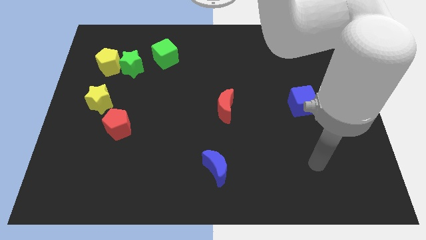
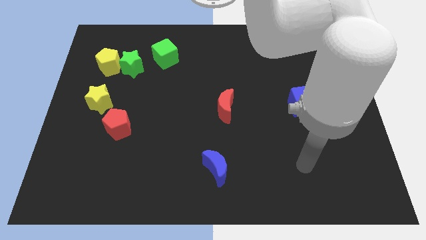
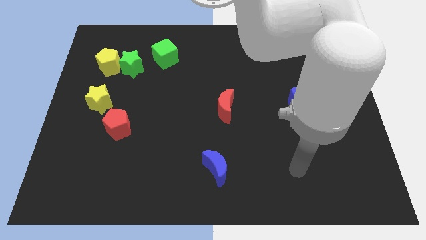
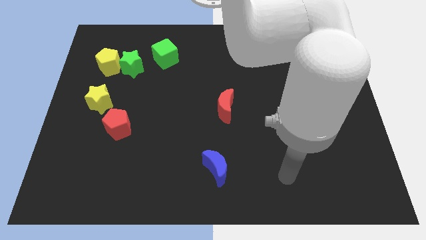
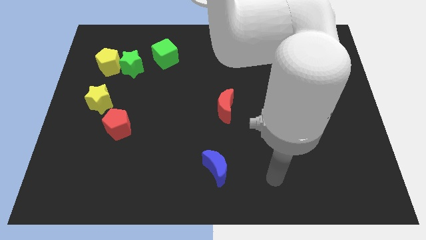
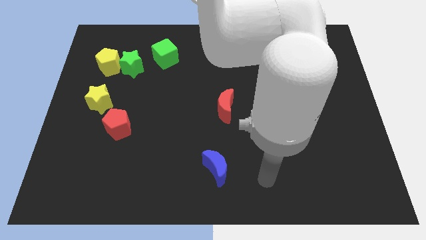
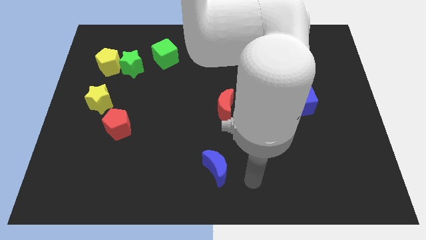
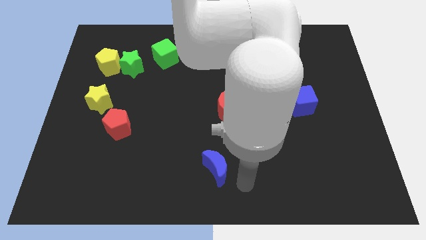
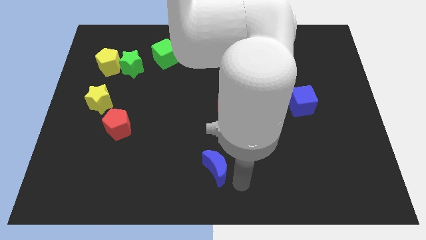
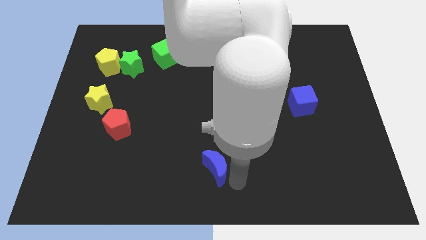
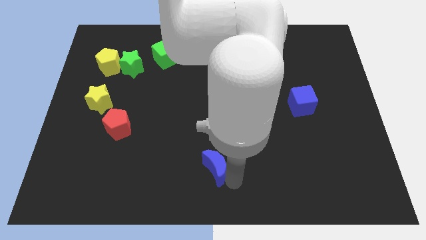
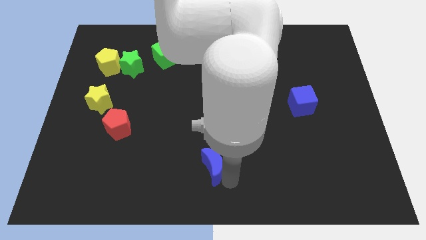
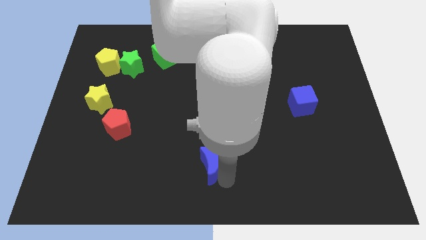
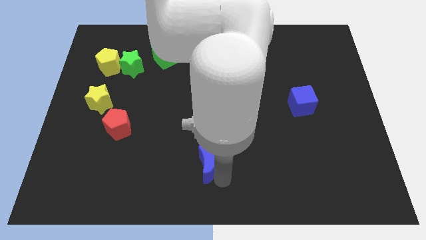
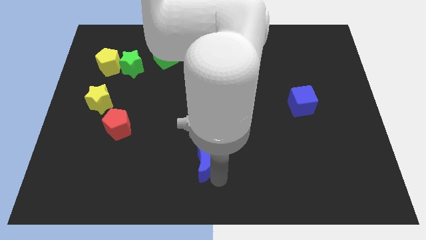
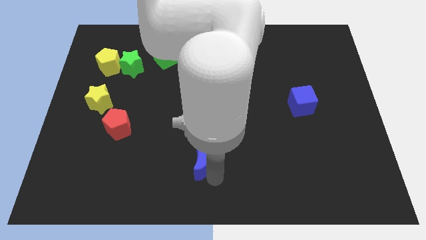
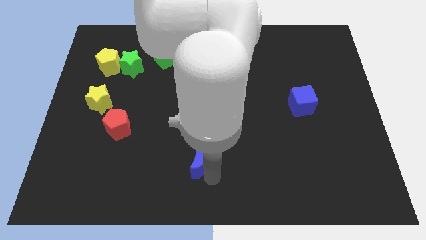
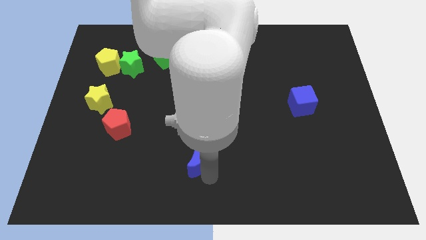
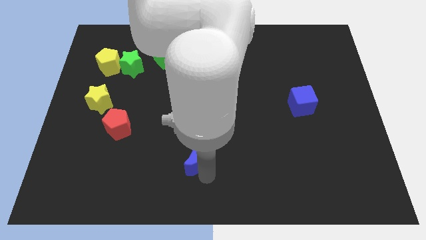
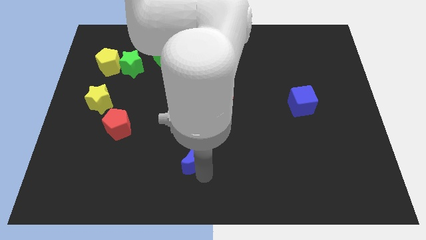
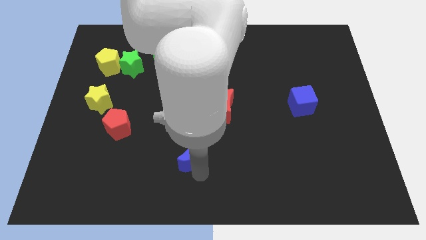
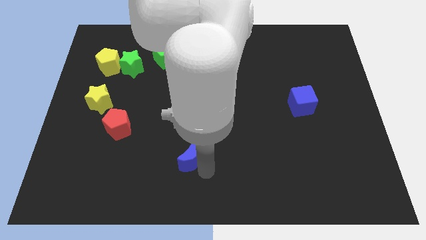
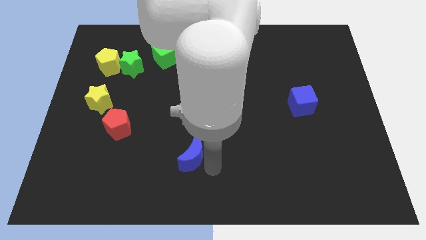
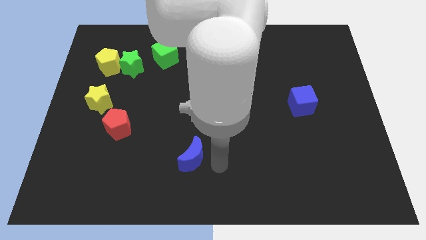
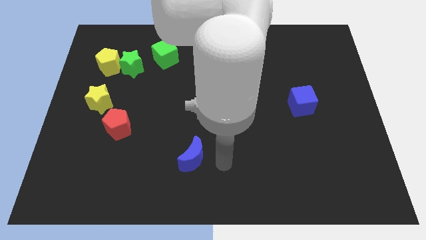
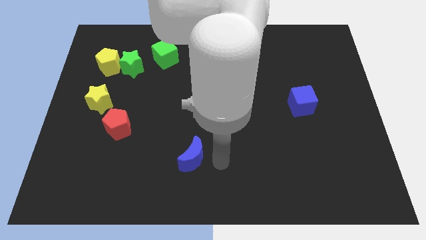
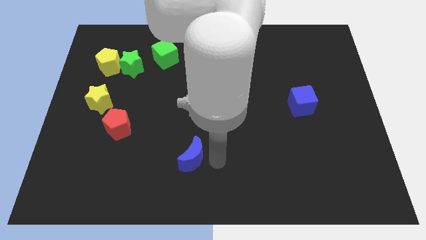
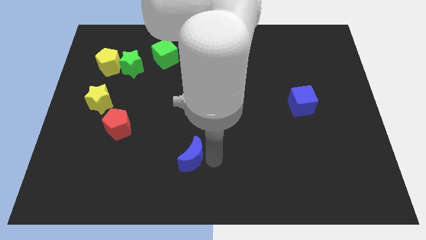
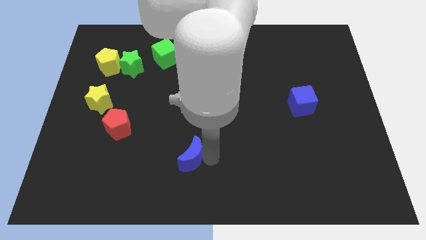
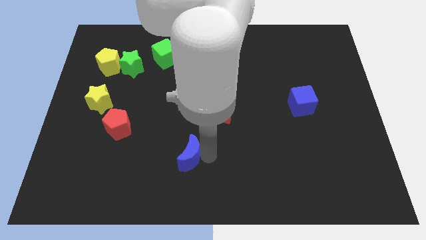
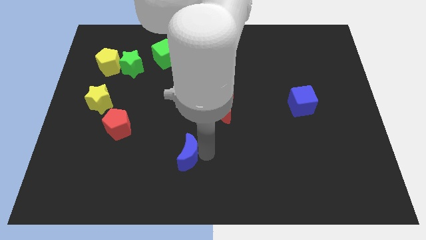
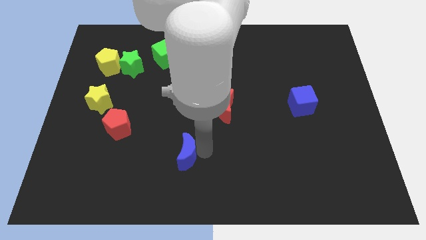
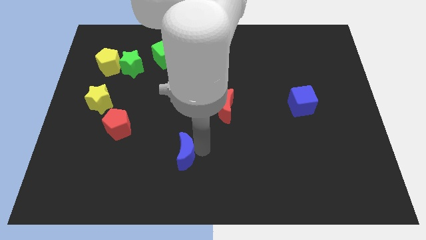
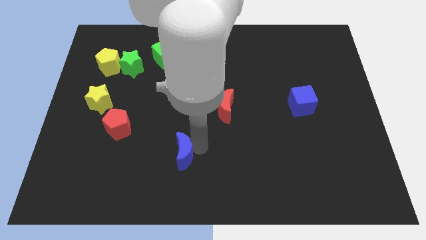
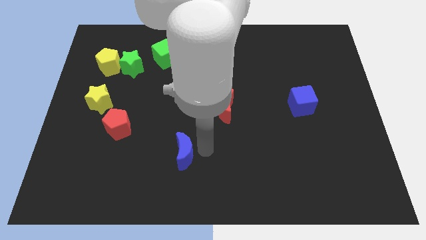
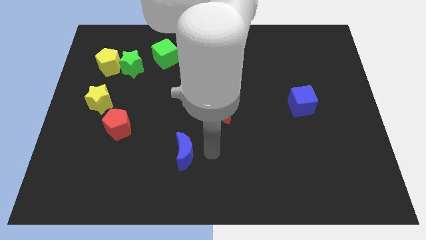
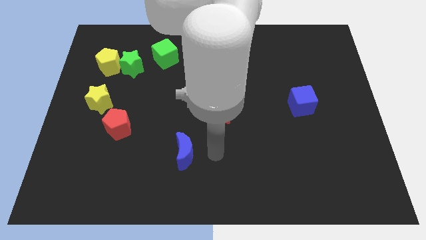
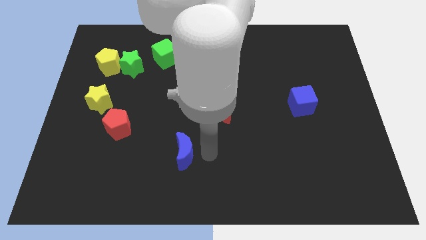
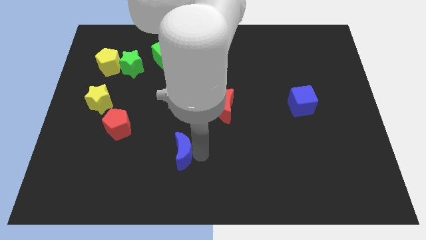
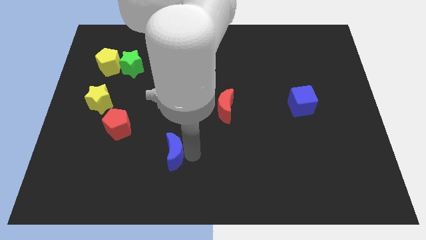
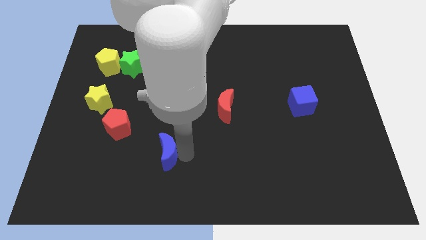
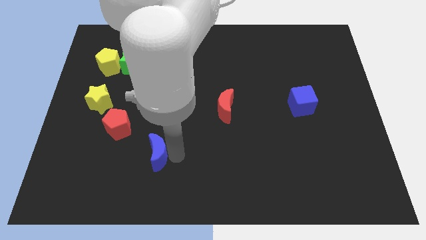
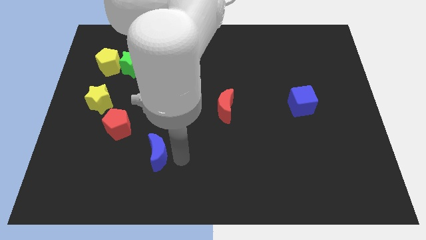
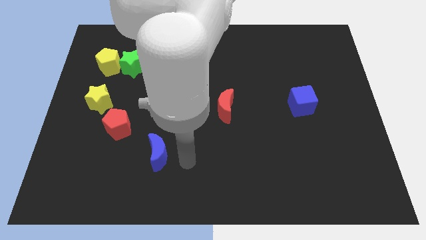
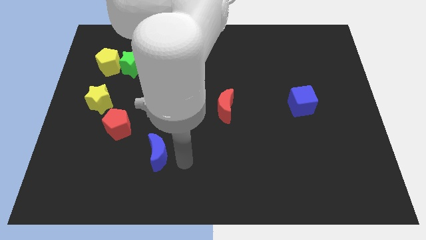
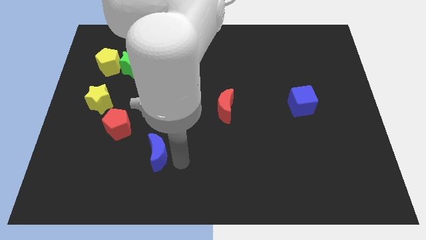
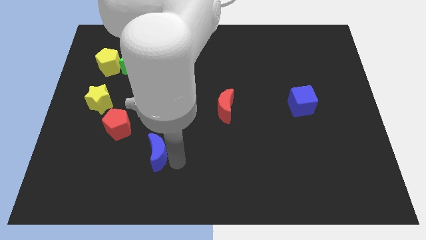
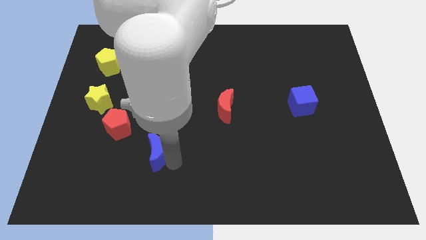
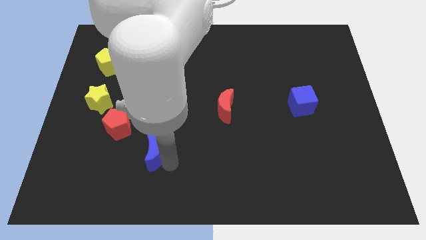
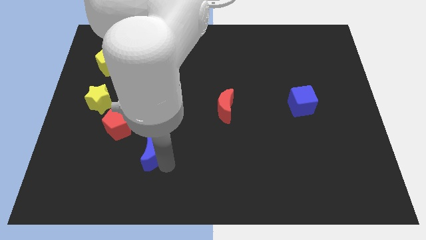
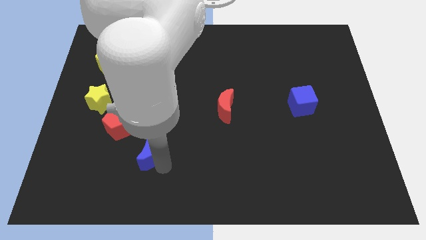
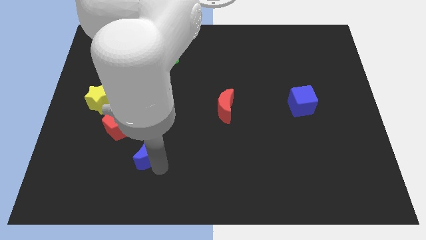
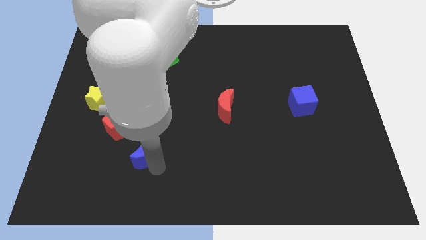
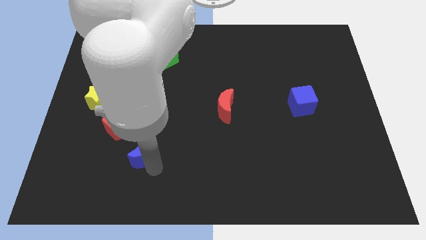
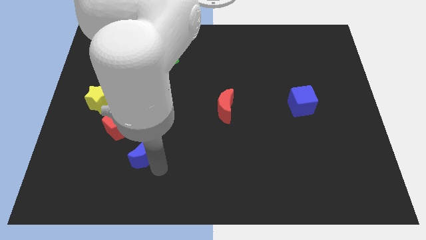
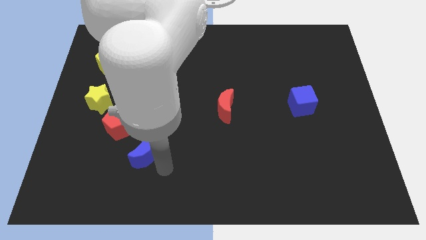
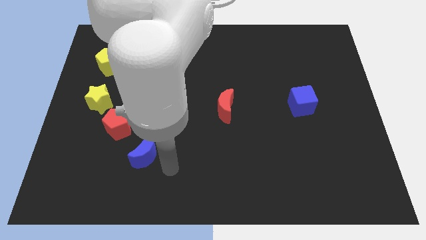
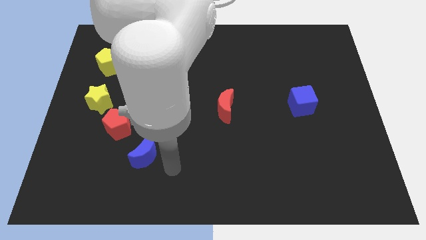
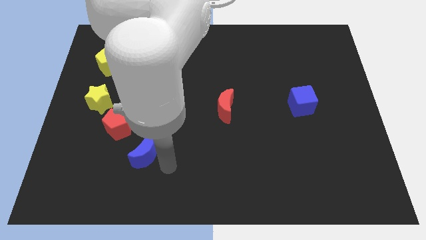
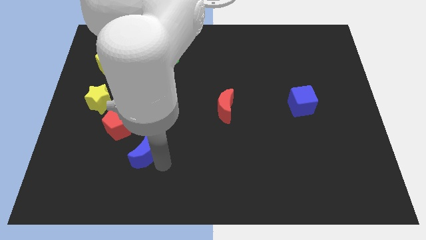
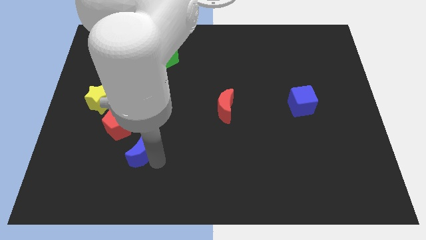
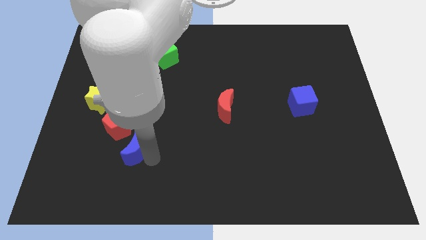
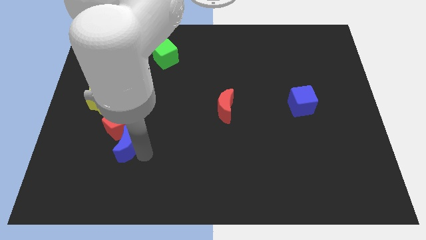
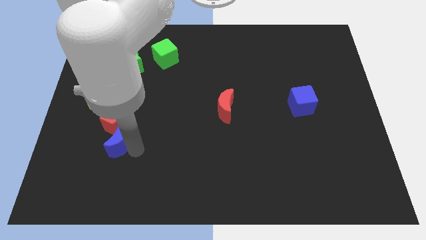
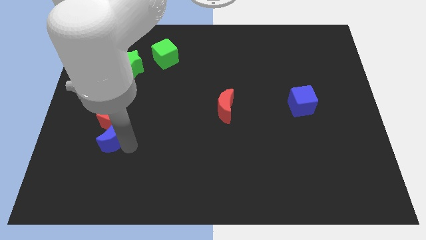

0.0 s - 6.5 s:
move the blue moon to the bottom of the yellow star

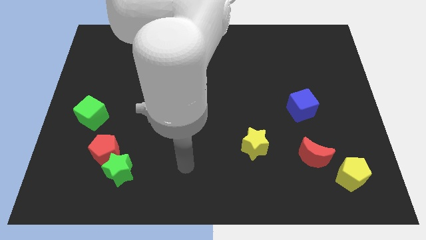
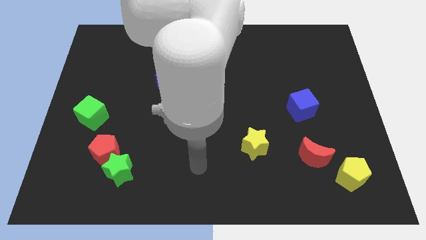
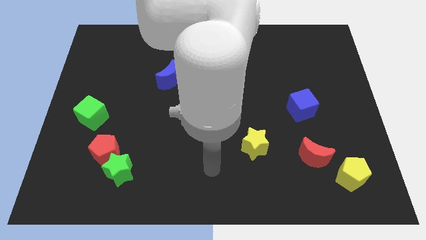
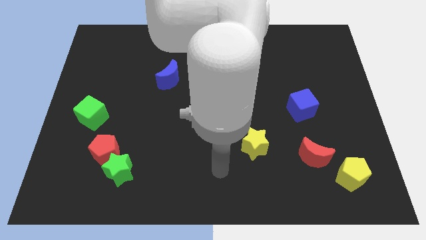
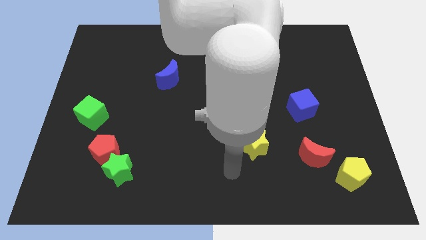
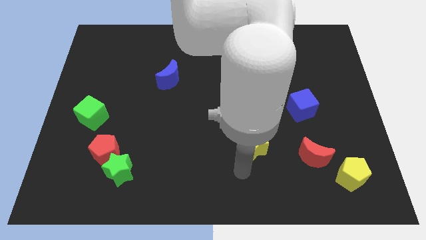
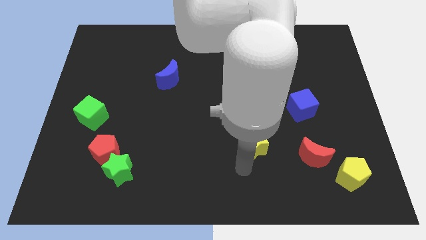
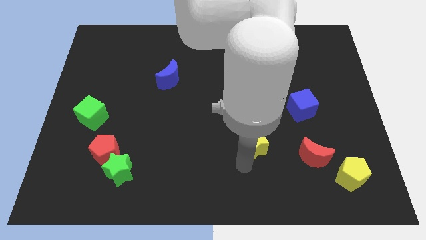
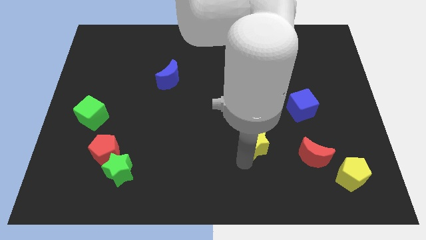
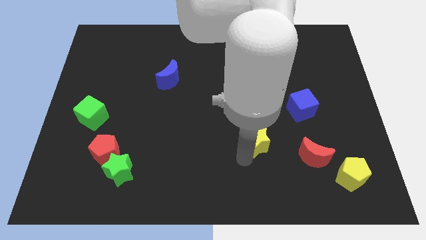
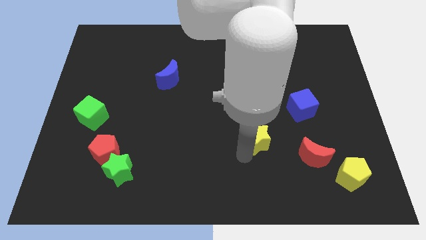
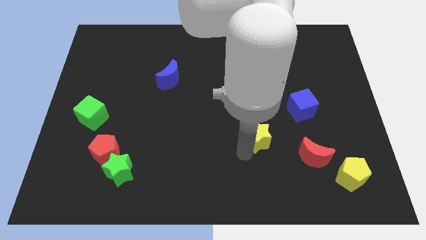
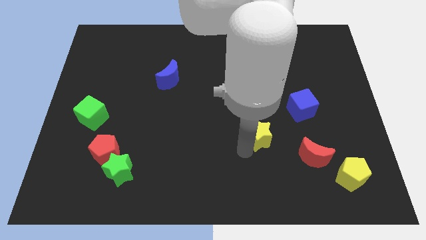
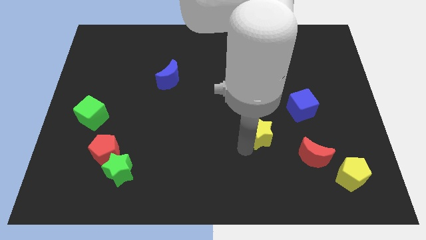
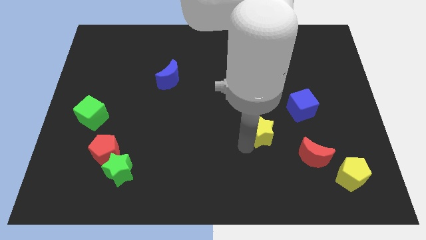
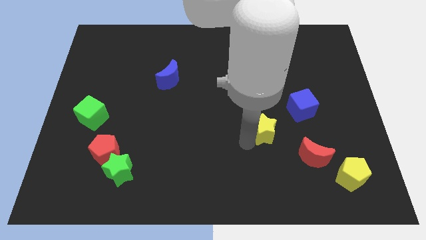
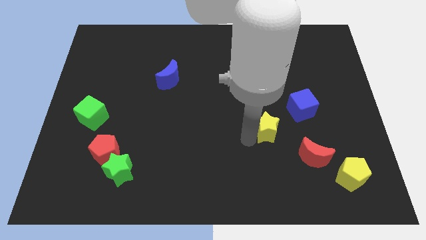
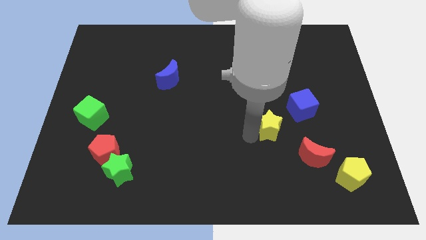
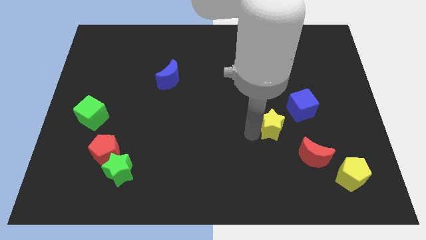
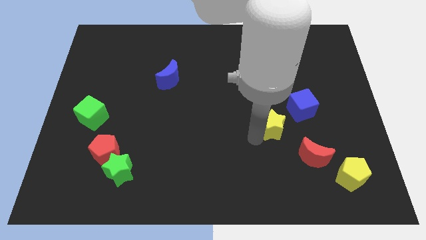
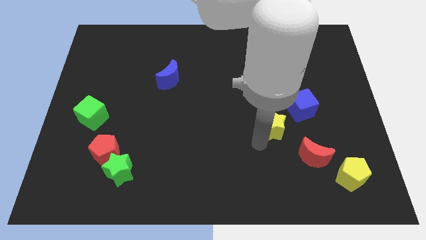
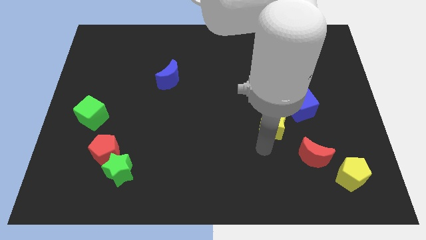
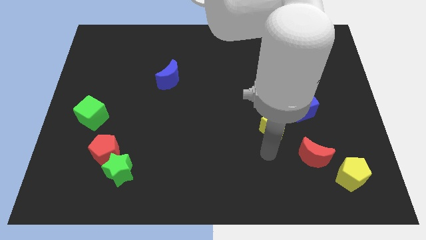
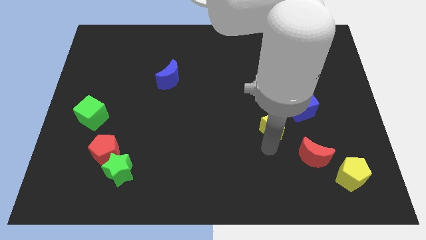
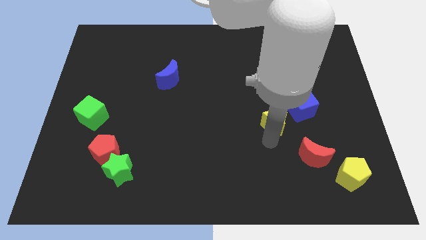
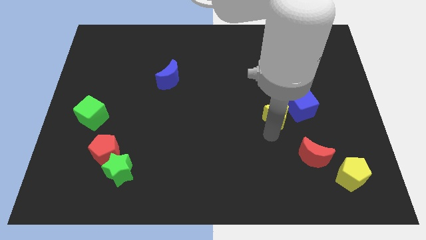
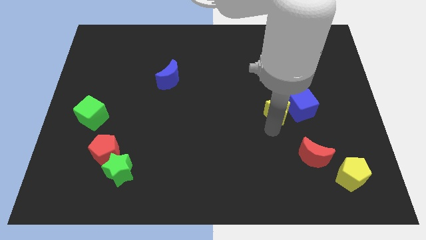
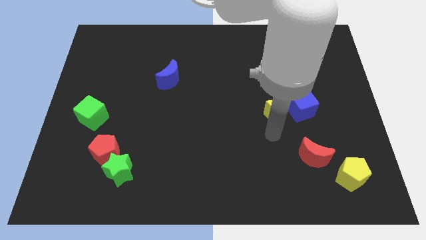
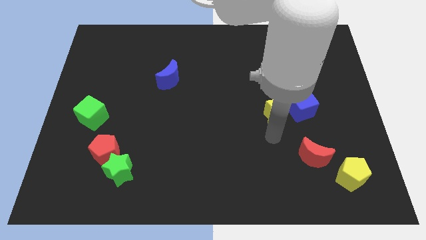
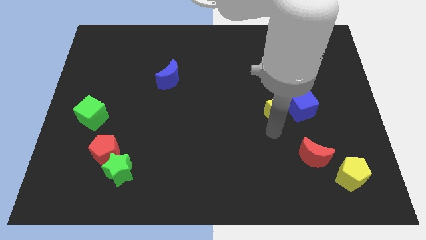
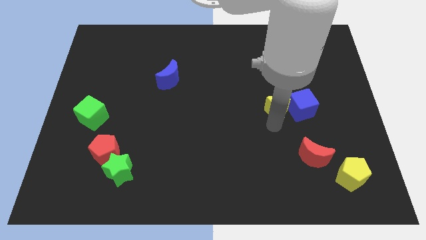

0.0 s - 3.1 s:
slide the yellow star to the top left of the blue cube
